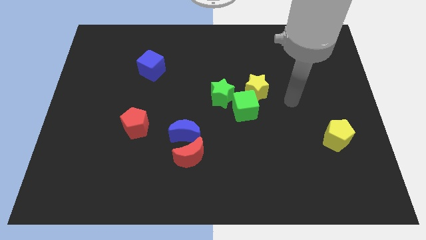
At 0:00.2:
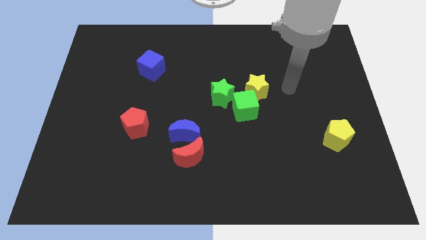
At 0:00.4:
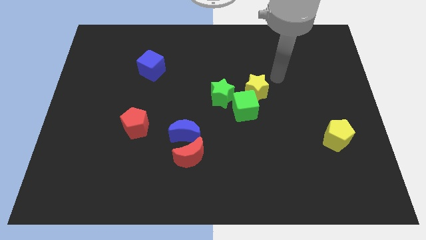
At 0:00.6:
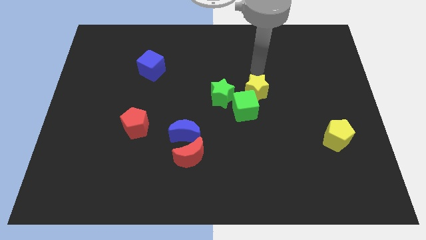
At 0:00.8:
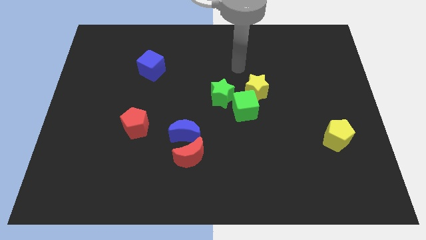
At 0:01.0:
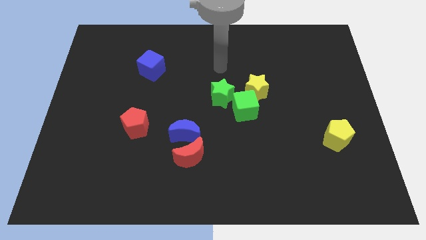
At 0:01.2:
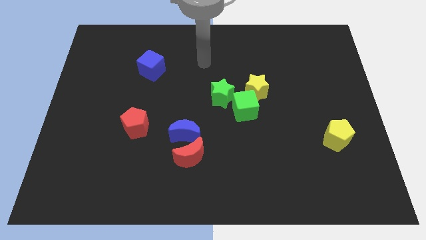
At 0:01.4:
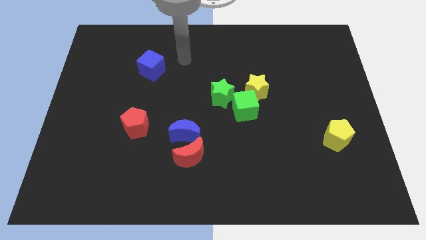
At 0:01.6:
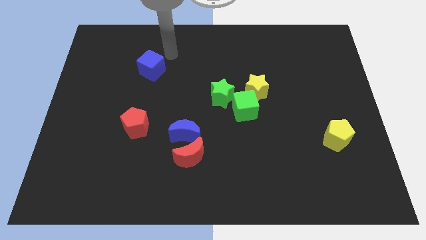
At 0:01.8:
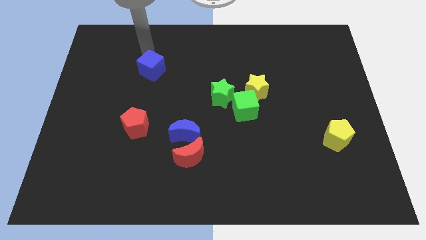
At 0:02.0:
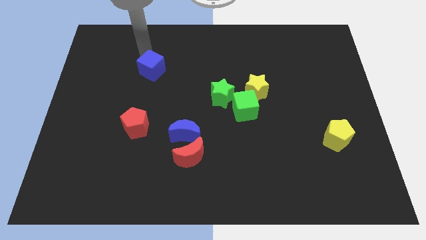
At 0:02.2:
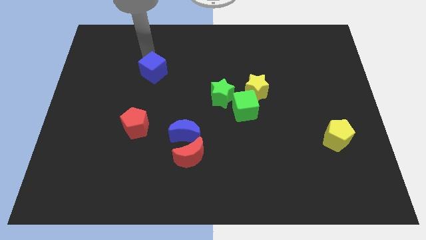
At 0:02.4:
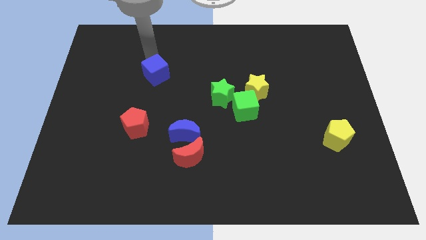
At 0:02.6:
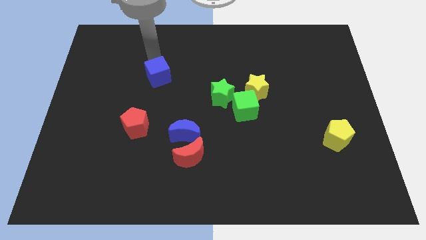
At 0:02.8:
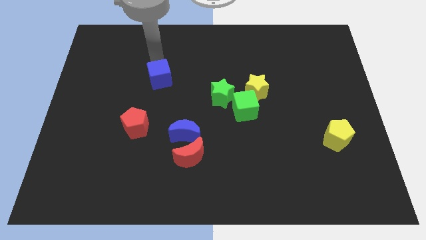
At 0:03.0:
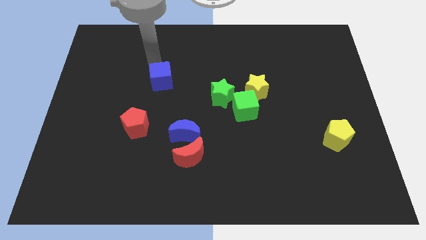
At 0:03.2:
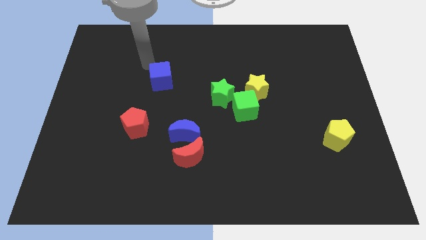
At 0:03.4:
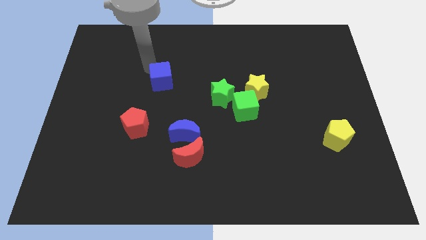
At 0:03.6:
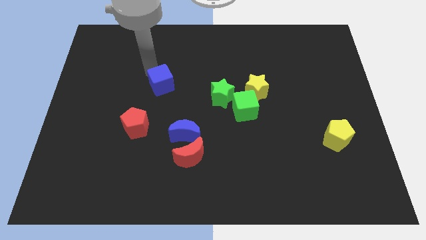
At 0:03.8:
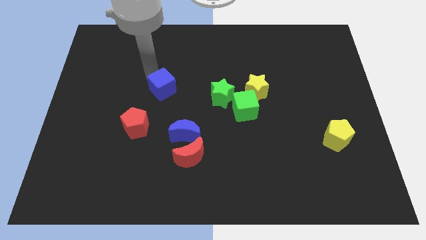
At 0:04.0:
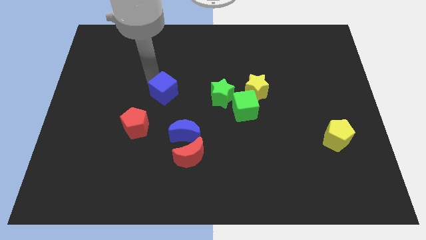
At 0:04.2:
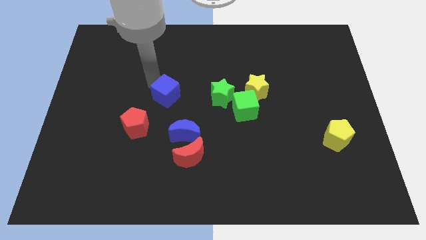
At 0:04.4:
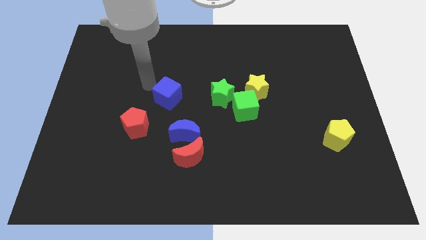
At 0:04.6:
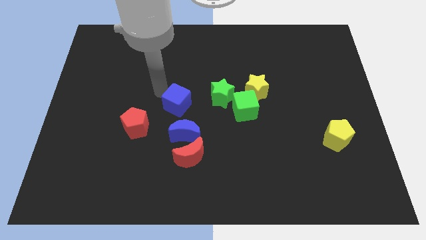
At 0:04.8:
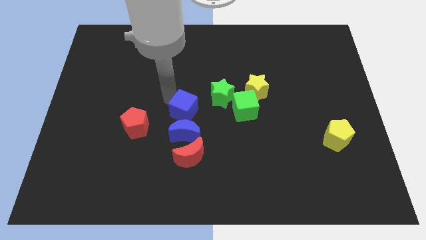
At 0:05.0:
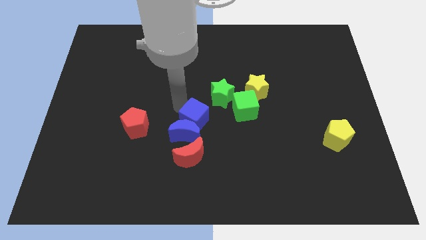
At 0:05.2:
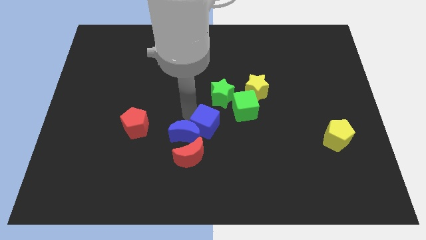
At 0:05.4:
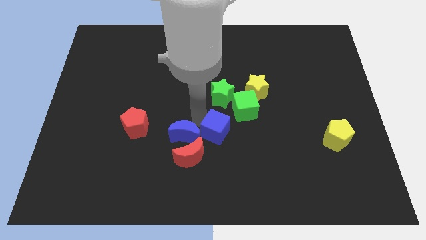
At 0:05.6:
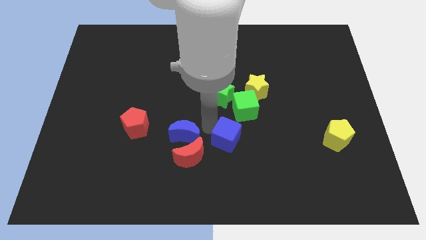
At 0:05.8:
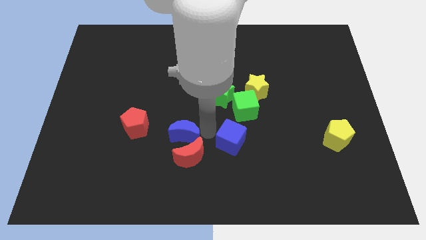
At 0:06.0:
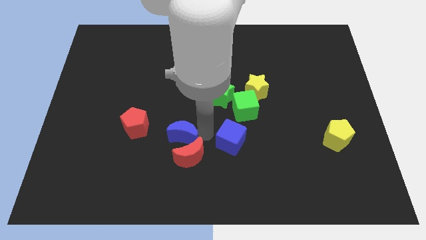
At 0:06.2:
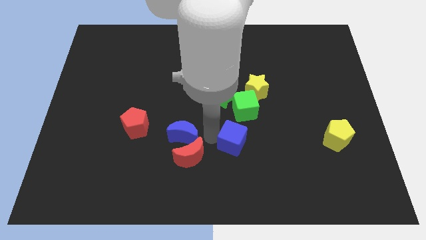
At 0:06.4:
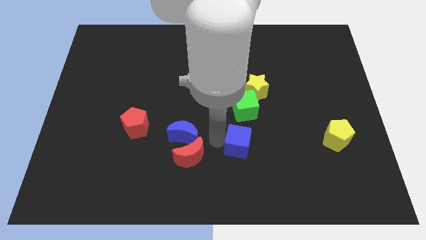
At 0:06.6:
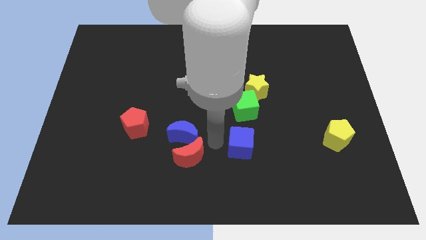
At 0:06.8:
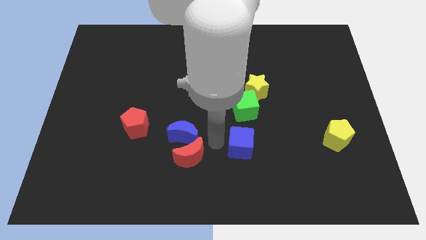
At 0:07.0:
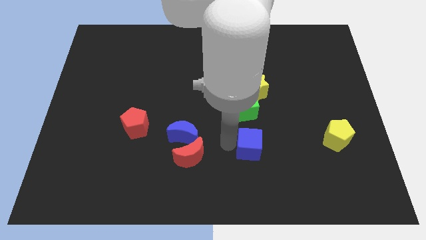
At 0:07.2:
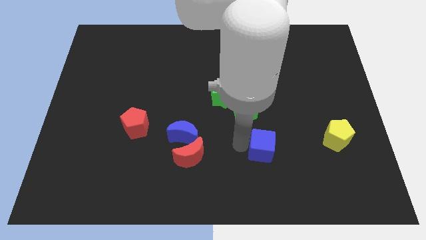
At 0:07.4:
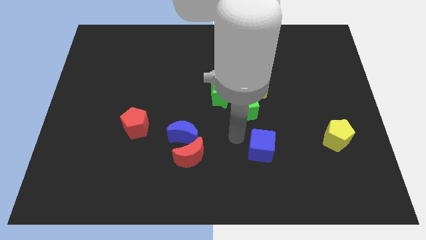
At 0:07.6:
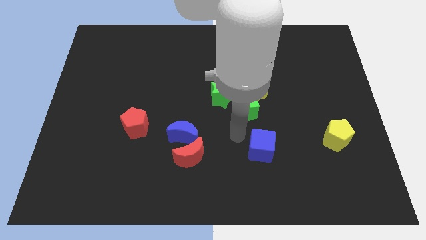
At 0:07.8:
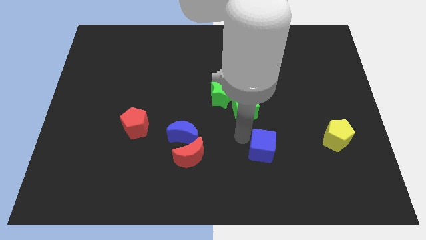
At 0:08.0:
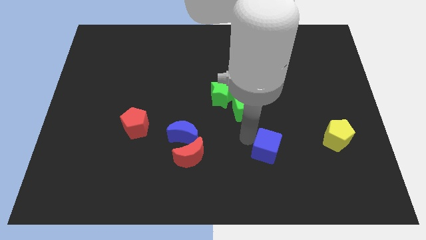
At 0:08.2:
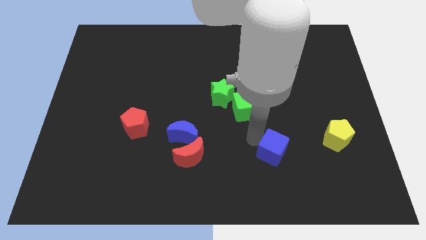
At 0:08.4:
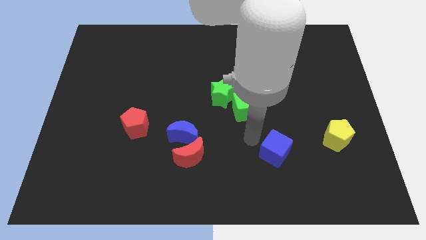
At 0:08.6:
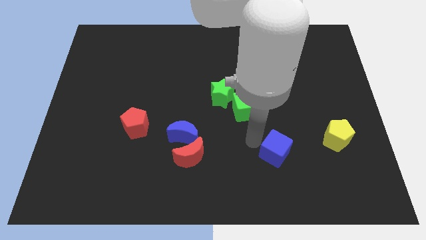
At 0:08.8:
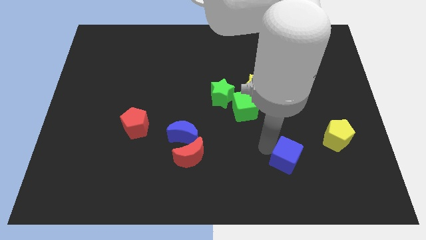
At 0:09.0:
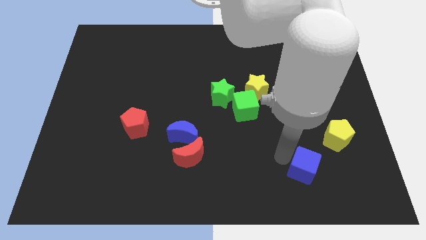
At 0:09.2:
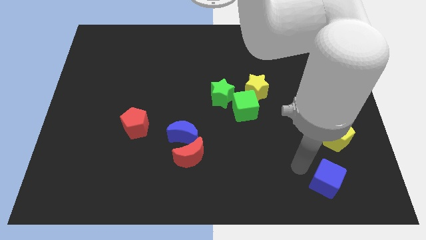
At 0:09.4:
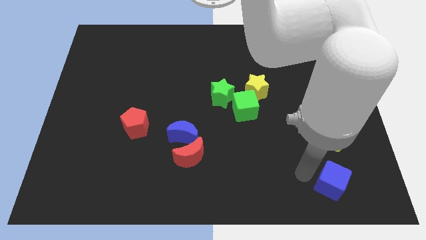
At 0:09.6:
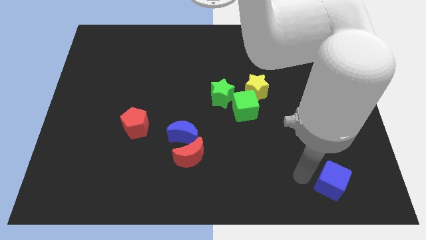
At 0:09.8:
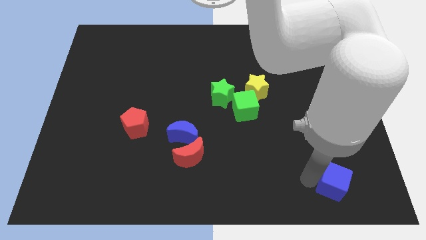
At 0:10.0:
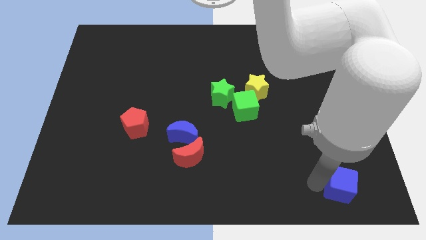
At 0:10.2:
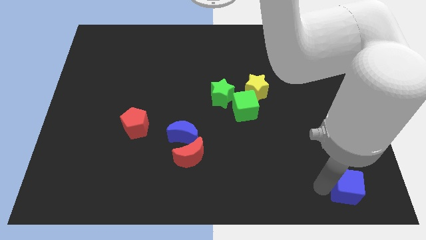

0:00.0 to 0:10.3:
put the blue cube to the lower right corner

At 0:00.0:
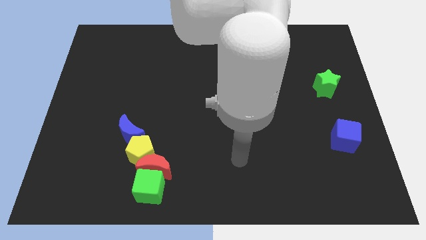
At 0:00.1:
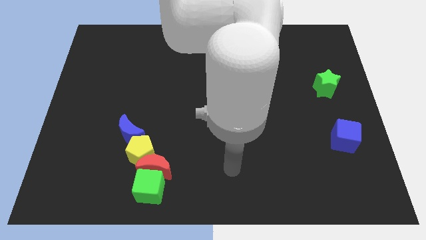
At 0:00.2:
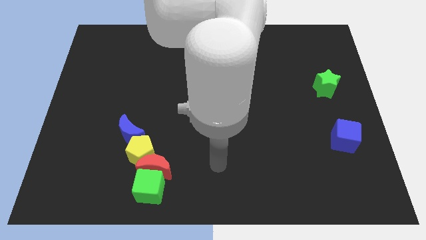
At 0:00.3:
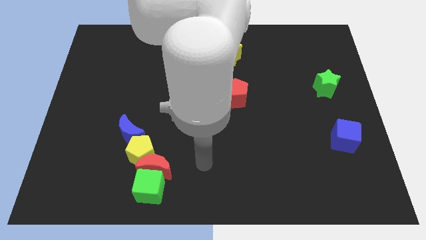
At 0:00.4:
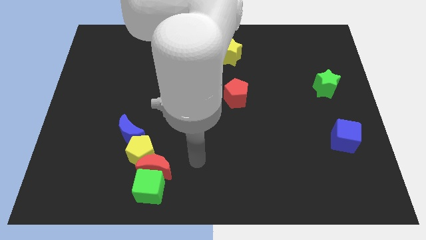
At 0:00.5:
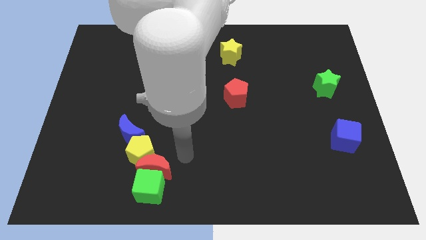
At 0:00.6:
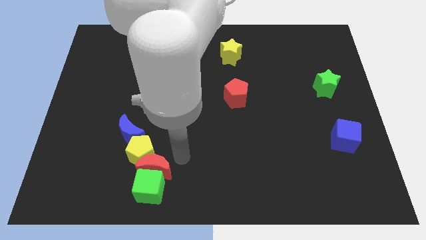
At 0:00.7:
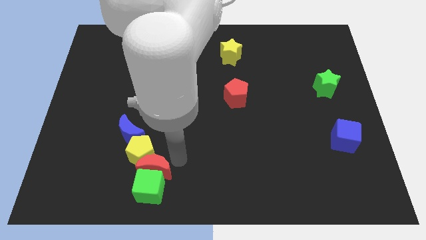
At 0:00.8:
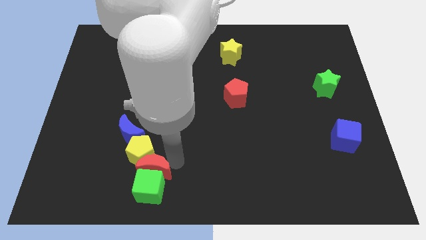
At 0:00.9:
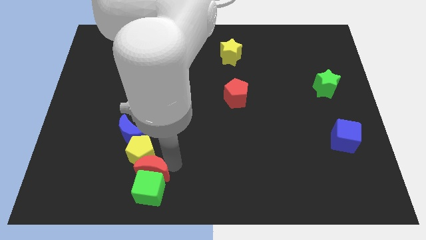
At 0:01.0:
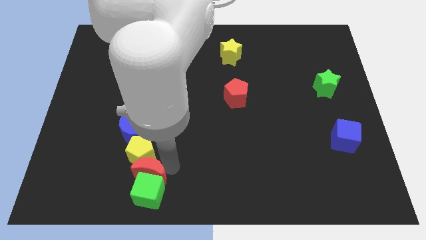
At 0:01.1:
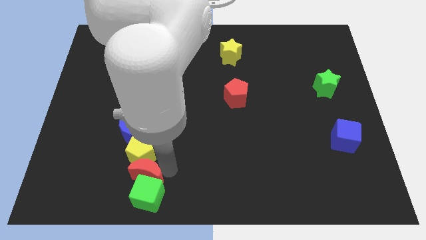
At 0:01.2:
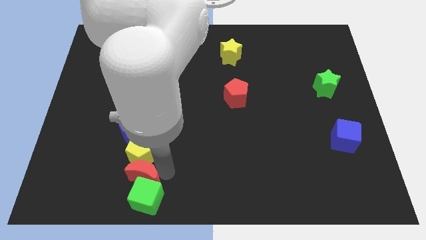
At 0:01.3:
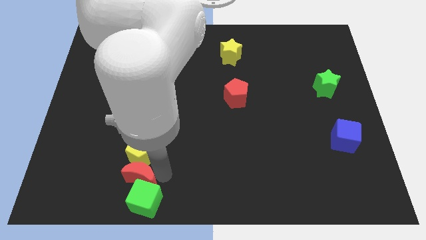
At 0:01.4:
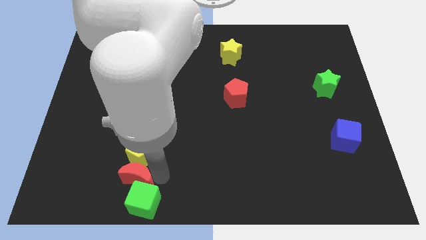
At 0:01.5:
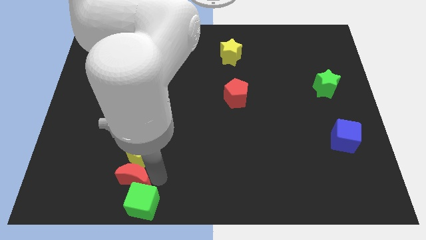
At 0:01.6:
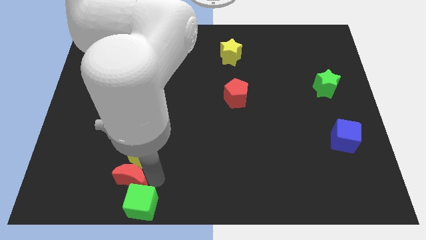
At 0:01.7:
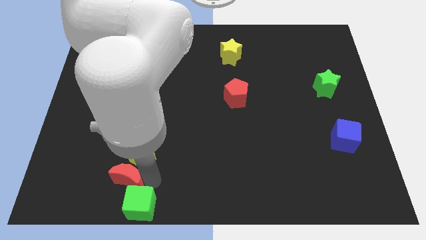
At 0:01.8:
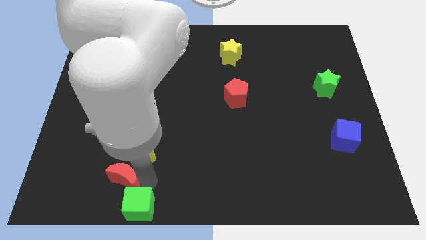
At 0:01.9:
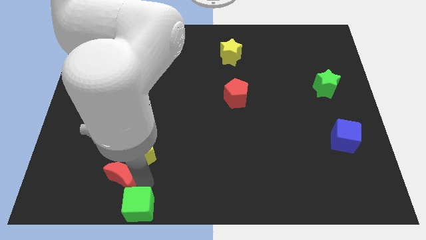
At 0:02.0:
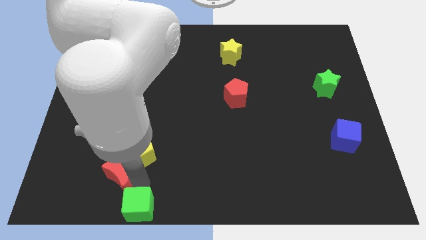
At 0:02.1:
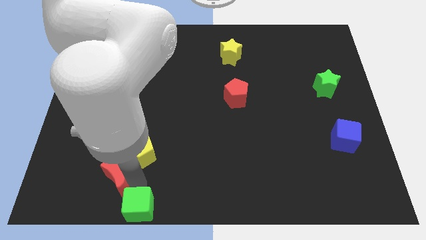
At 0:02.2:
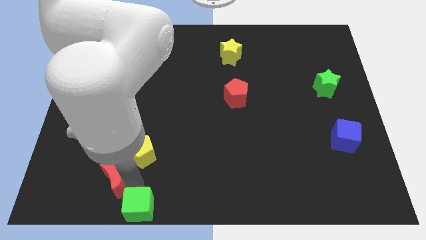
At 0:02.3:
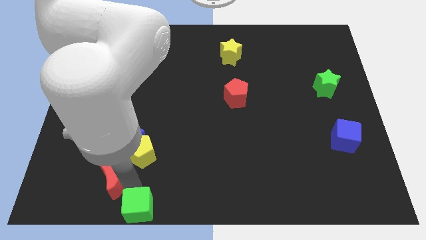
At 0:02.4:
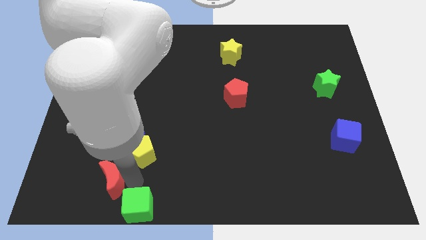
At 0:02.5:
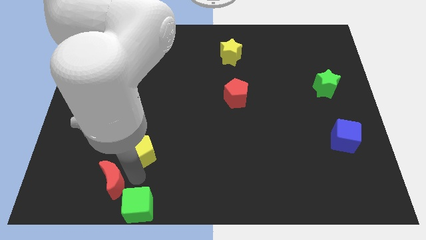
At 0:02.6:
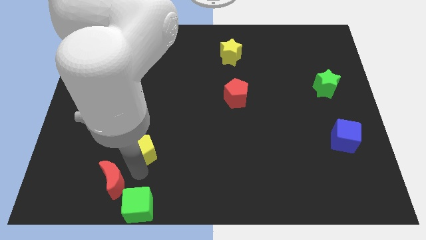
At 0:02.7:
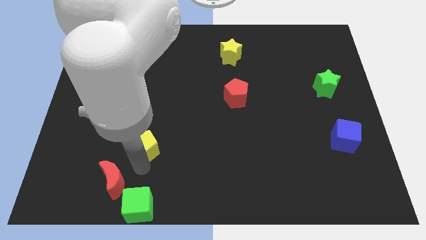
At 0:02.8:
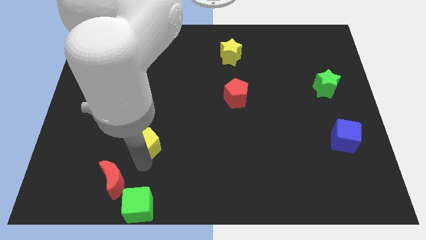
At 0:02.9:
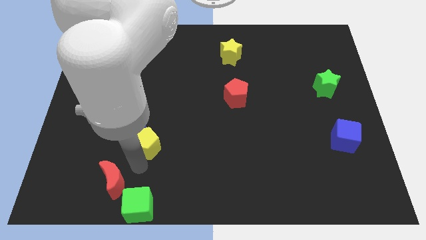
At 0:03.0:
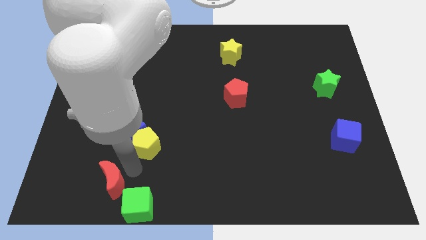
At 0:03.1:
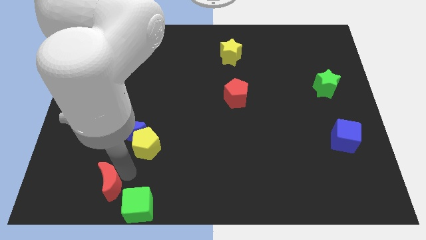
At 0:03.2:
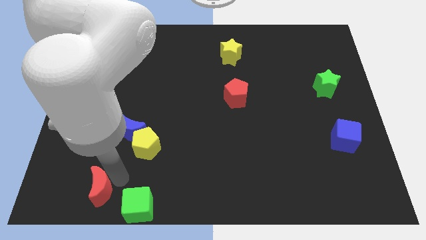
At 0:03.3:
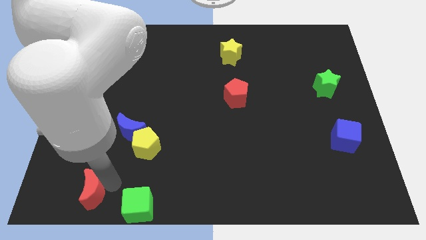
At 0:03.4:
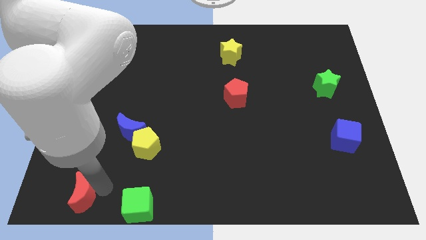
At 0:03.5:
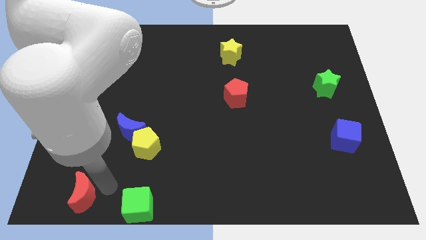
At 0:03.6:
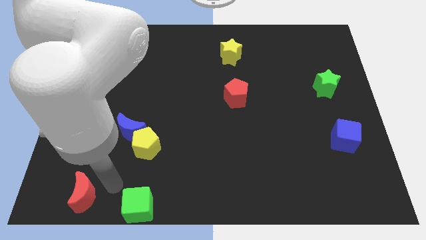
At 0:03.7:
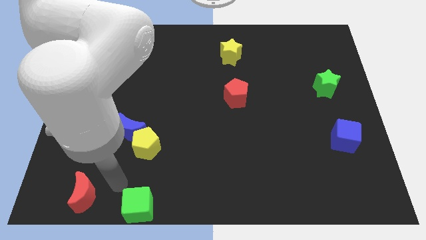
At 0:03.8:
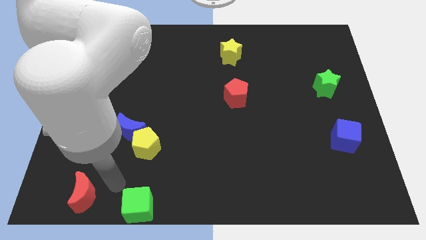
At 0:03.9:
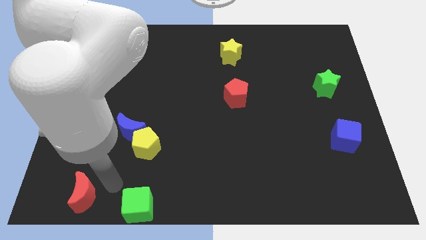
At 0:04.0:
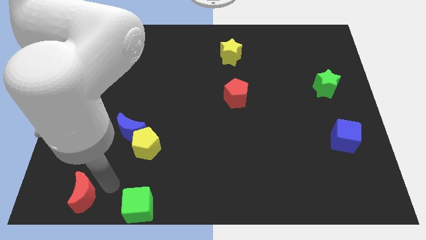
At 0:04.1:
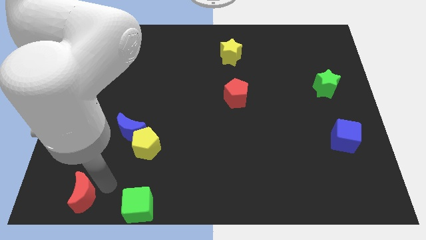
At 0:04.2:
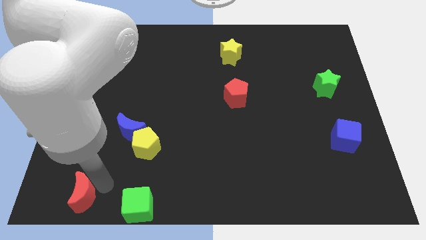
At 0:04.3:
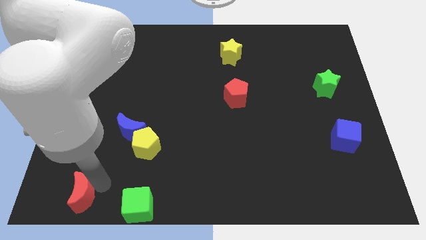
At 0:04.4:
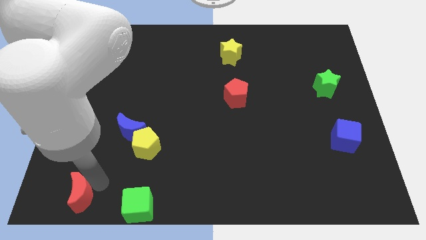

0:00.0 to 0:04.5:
move the red moon to the bottom left
